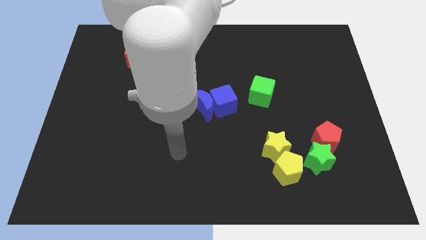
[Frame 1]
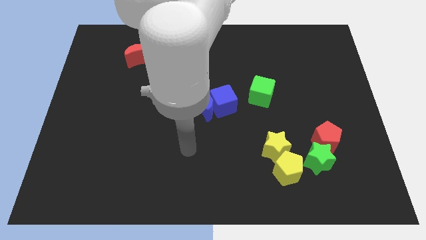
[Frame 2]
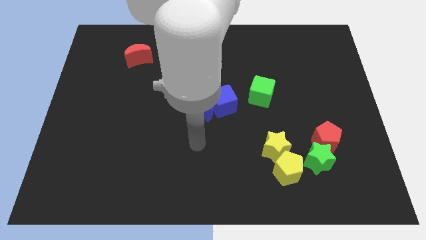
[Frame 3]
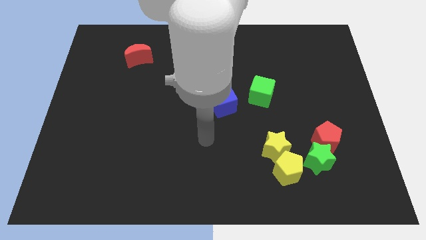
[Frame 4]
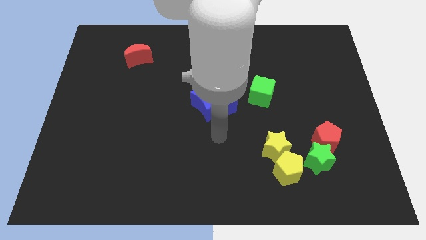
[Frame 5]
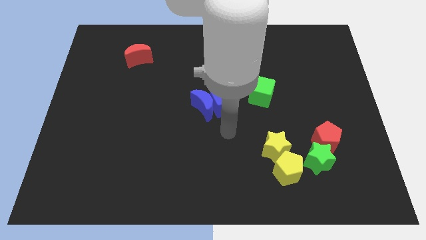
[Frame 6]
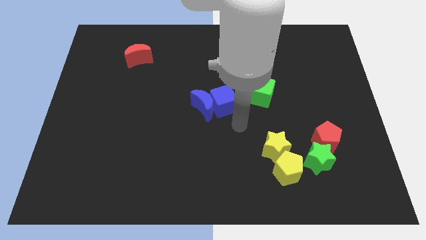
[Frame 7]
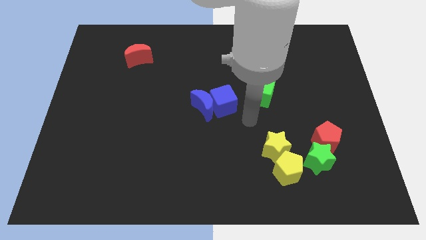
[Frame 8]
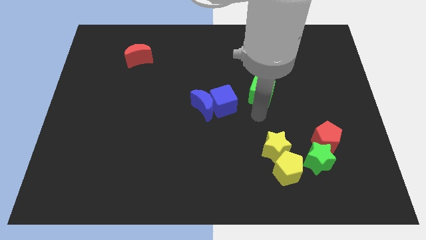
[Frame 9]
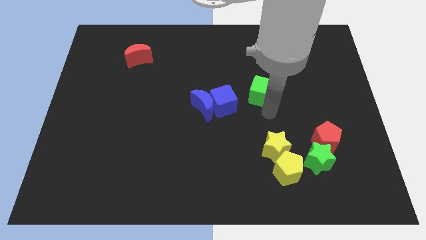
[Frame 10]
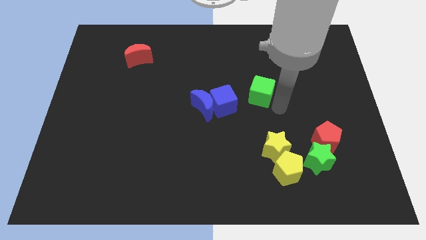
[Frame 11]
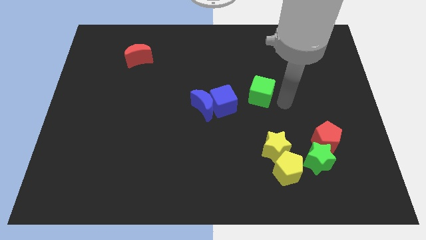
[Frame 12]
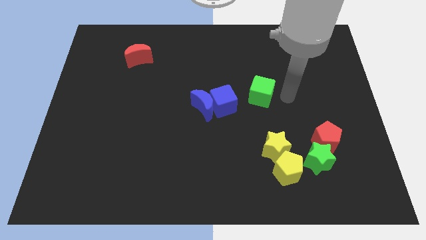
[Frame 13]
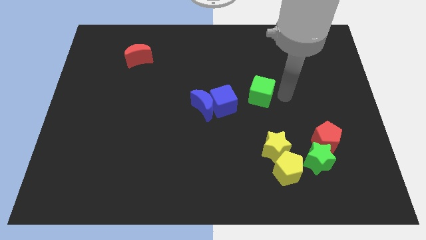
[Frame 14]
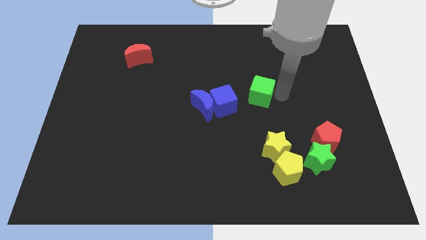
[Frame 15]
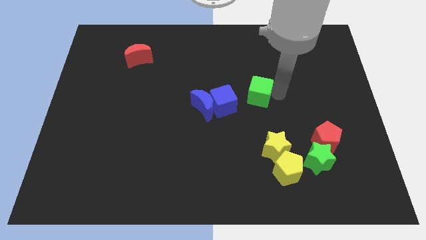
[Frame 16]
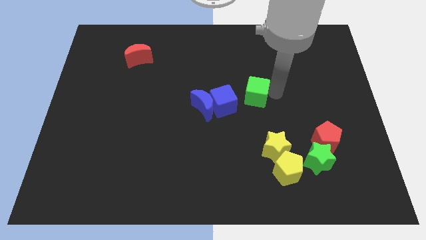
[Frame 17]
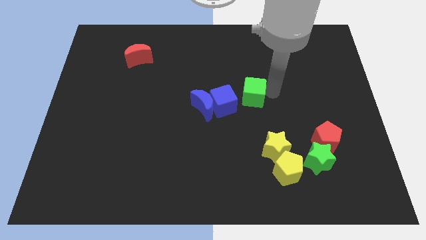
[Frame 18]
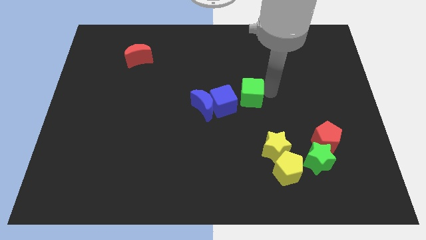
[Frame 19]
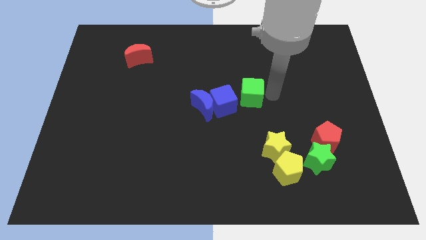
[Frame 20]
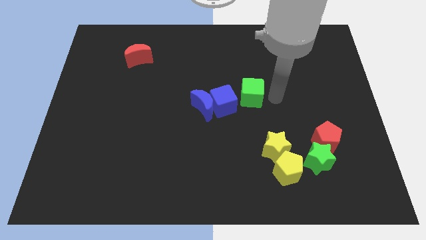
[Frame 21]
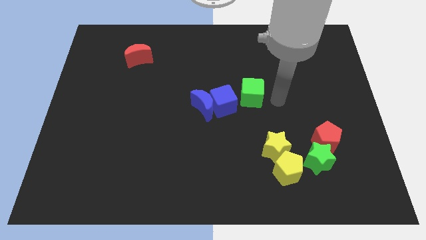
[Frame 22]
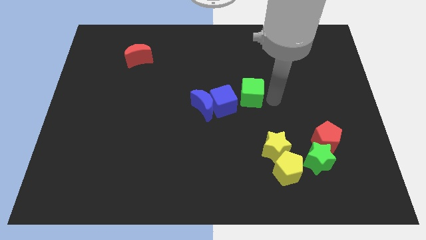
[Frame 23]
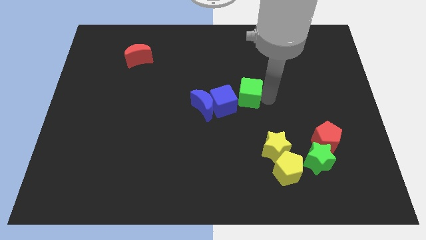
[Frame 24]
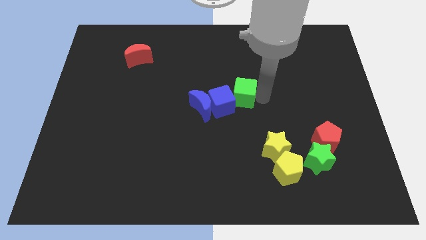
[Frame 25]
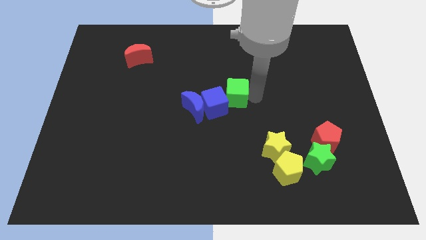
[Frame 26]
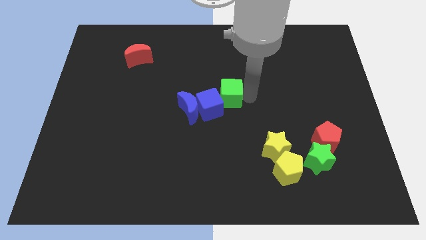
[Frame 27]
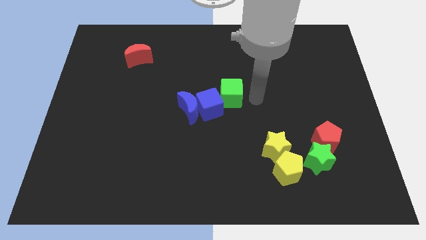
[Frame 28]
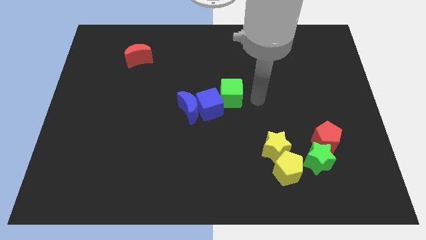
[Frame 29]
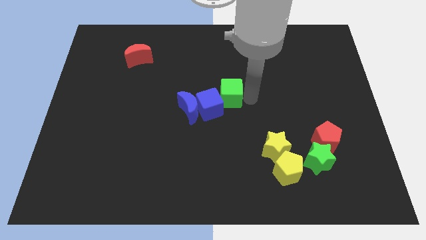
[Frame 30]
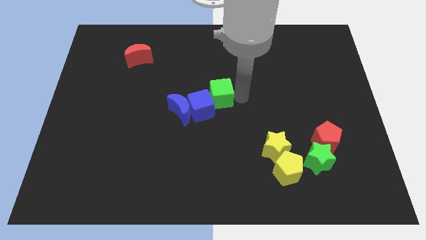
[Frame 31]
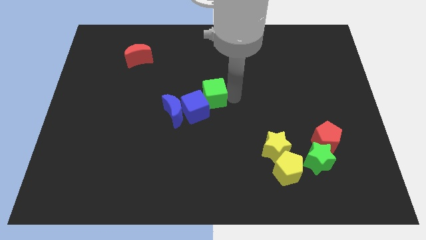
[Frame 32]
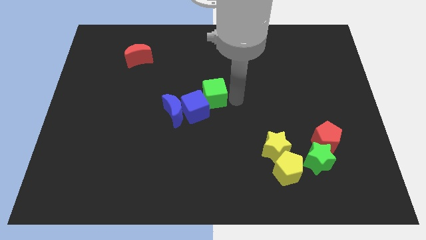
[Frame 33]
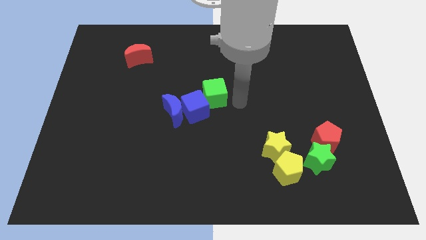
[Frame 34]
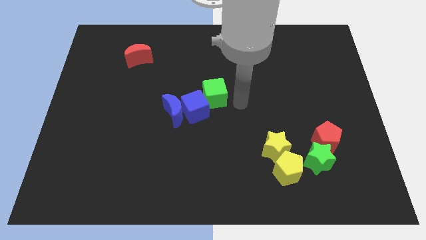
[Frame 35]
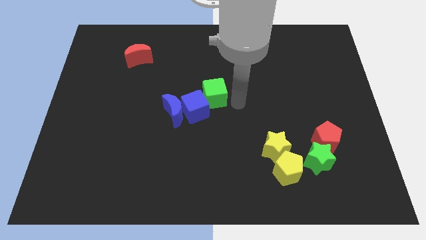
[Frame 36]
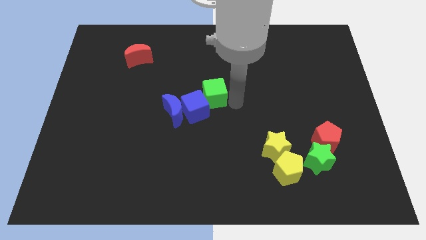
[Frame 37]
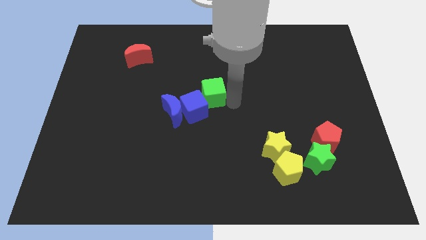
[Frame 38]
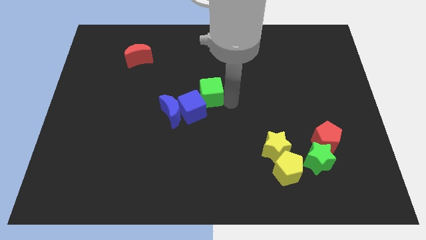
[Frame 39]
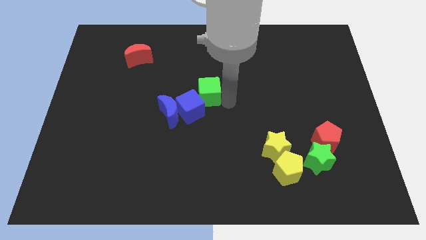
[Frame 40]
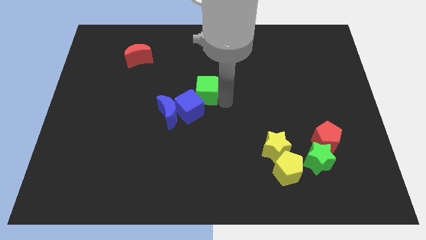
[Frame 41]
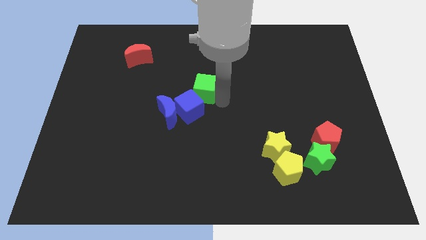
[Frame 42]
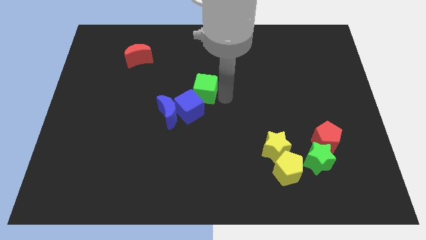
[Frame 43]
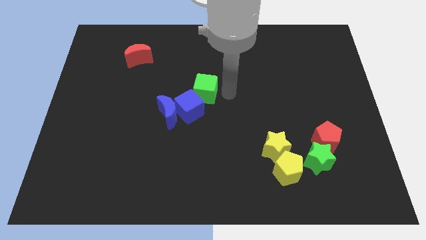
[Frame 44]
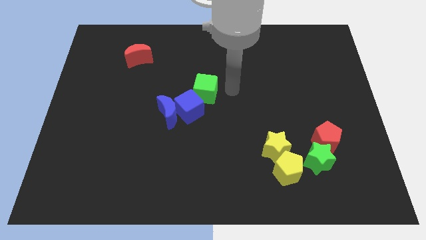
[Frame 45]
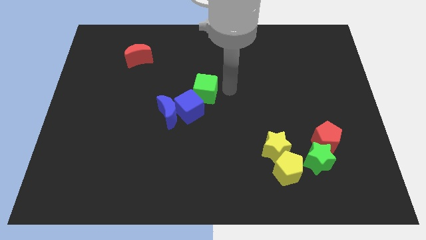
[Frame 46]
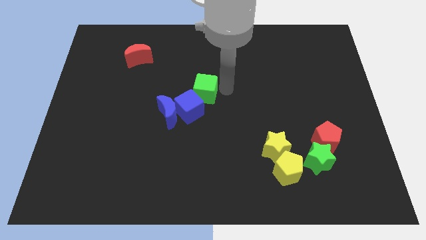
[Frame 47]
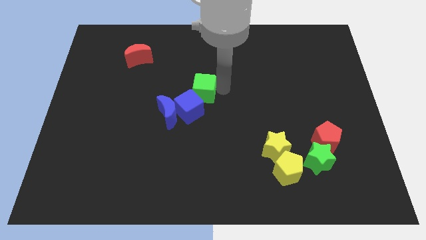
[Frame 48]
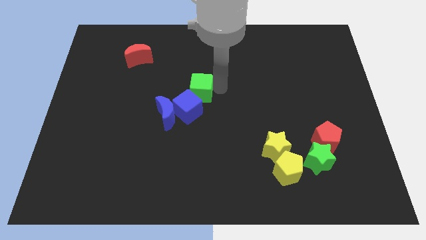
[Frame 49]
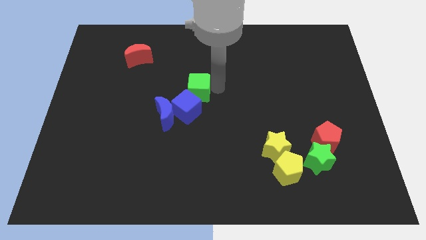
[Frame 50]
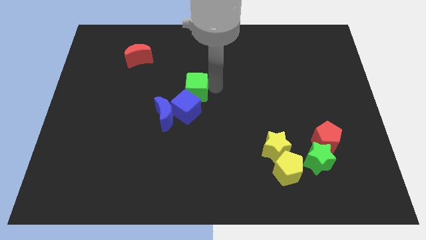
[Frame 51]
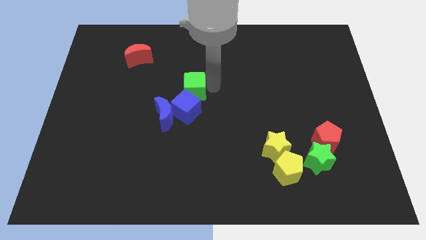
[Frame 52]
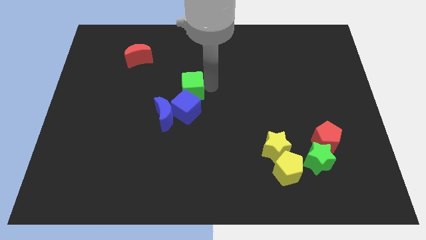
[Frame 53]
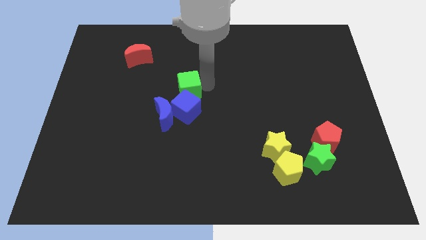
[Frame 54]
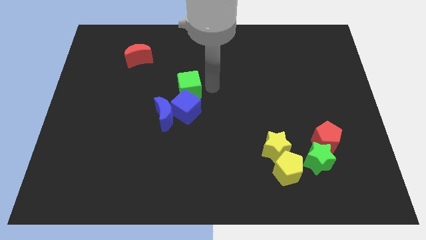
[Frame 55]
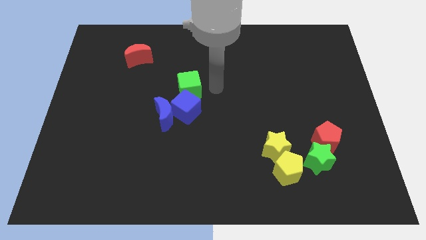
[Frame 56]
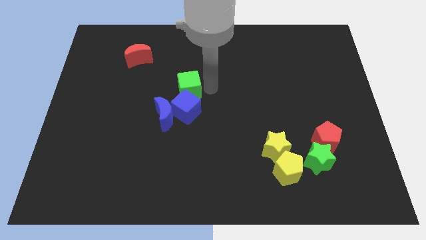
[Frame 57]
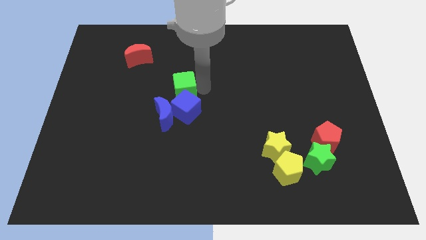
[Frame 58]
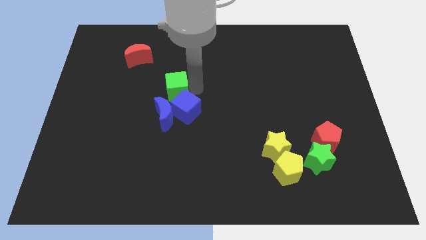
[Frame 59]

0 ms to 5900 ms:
move the green cube to the left

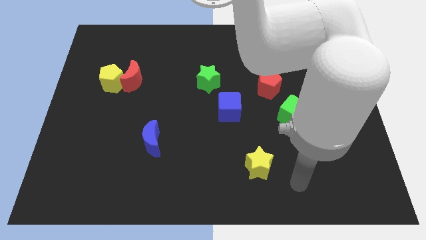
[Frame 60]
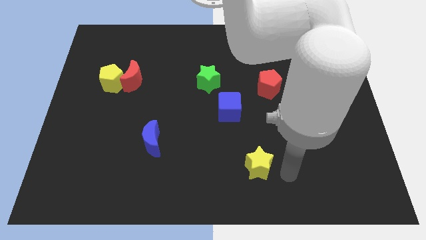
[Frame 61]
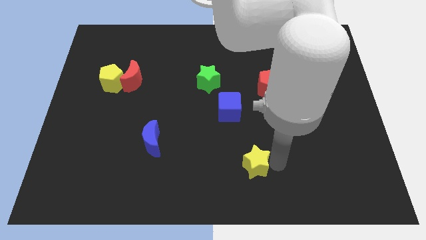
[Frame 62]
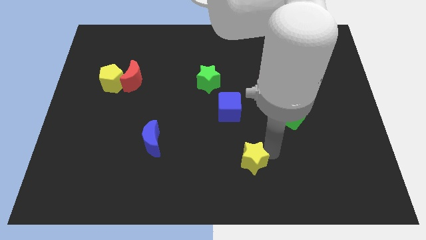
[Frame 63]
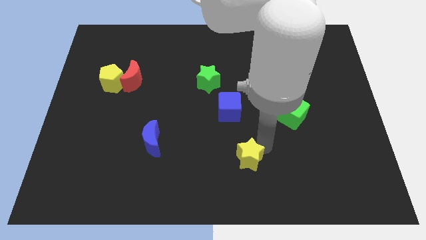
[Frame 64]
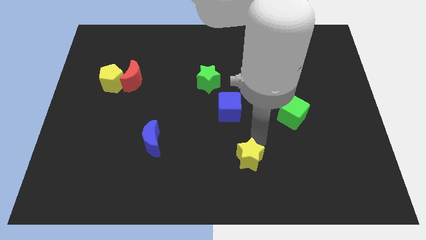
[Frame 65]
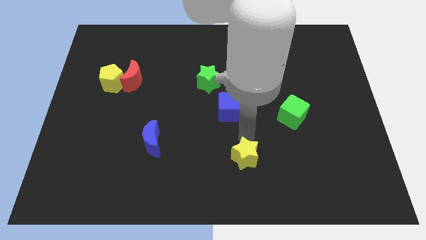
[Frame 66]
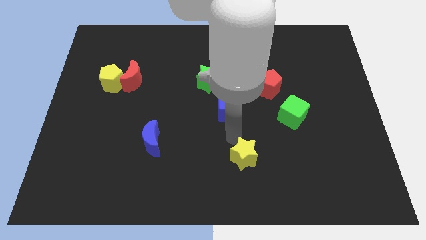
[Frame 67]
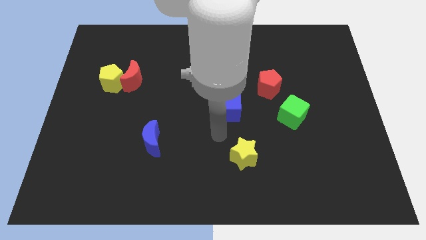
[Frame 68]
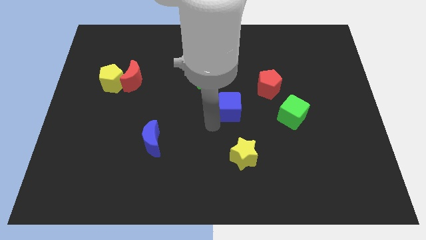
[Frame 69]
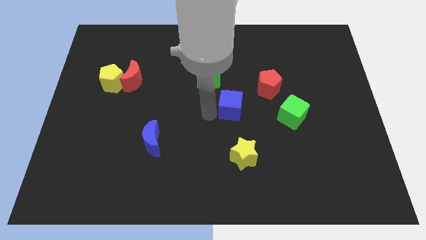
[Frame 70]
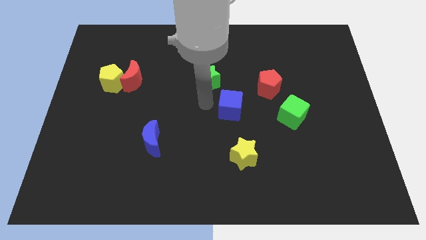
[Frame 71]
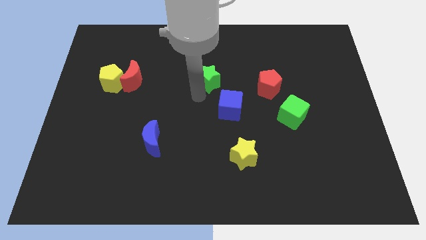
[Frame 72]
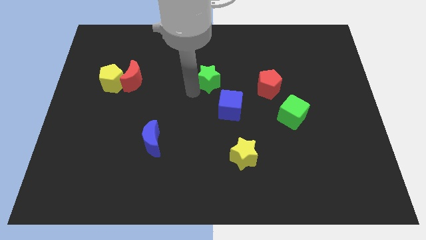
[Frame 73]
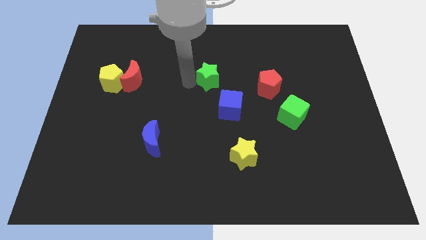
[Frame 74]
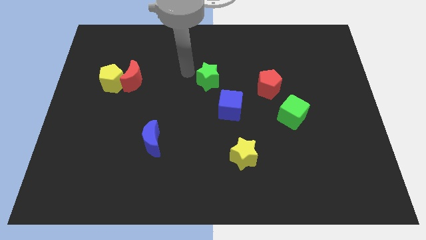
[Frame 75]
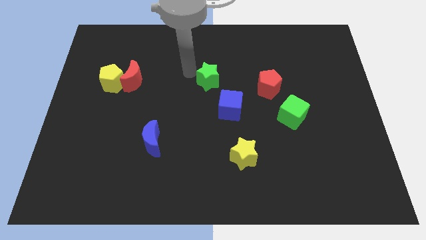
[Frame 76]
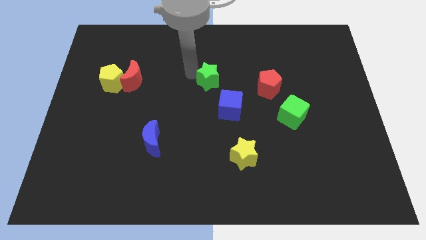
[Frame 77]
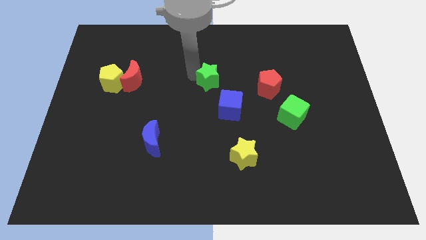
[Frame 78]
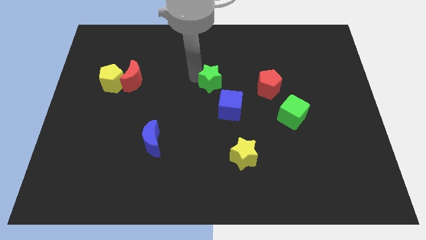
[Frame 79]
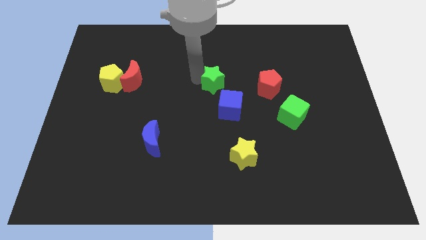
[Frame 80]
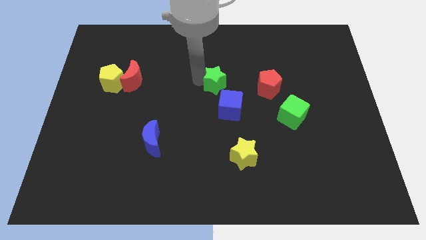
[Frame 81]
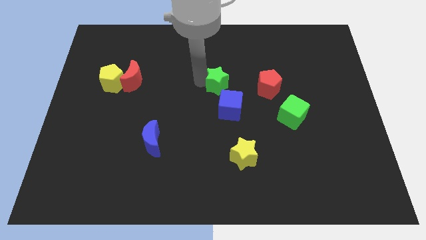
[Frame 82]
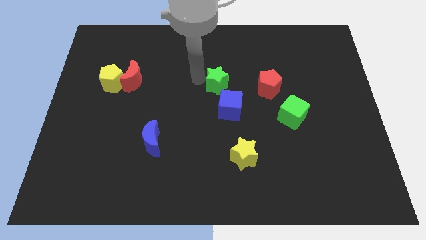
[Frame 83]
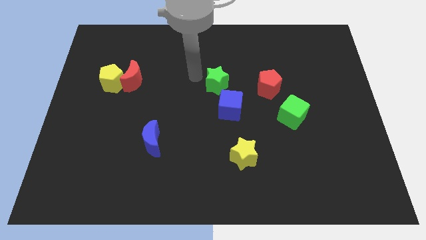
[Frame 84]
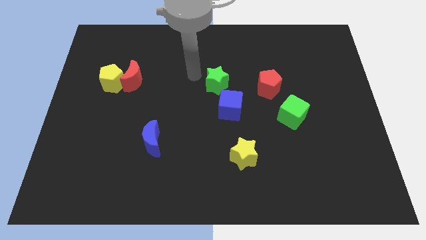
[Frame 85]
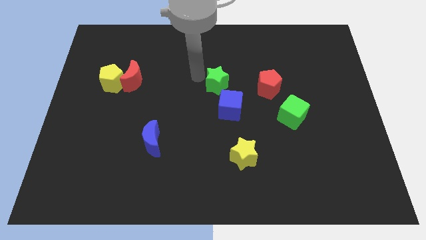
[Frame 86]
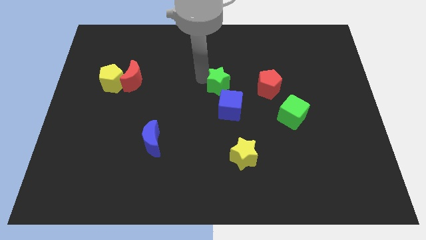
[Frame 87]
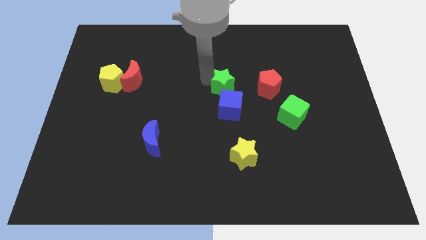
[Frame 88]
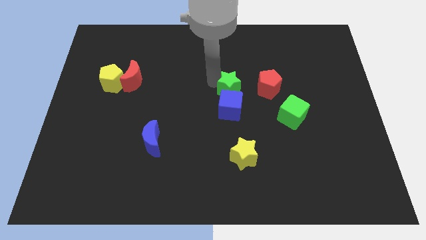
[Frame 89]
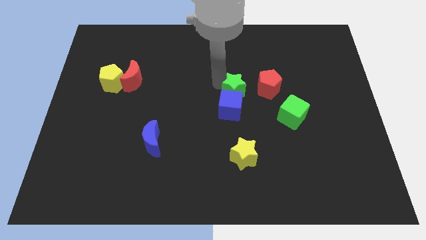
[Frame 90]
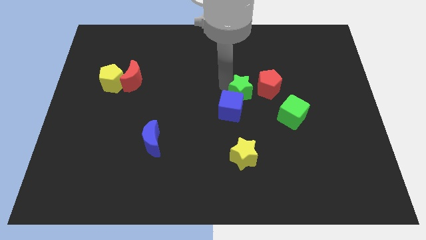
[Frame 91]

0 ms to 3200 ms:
slightly move the green star diagonally downwards and to the right
